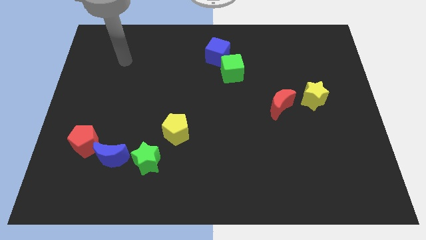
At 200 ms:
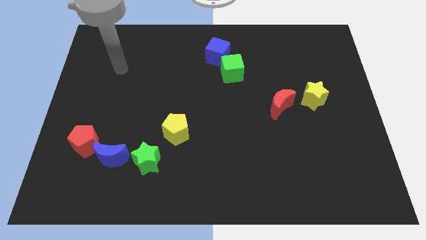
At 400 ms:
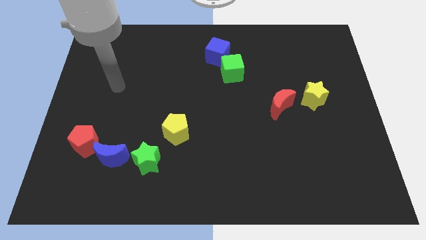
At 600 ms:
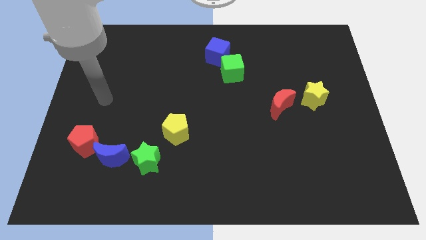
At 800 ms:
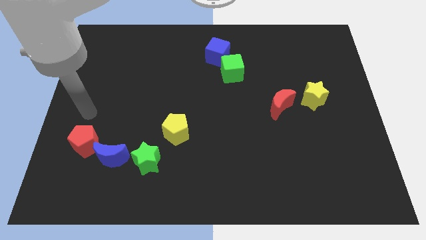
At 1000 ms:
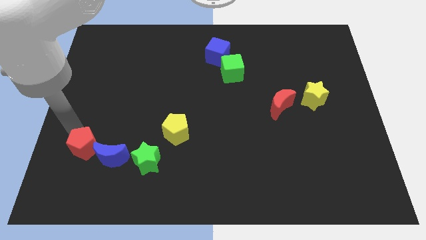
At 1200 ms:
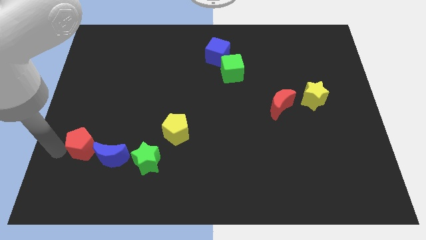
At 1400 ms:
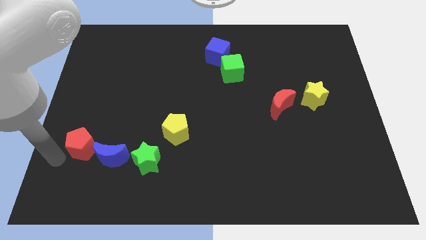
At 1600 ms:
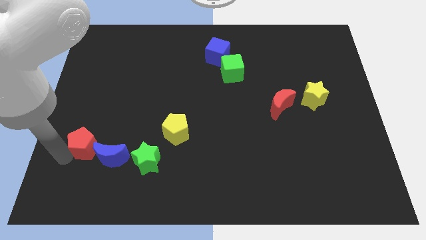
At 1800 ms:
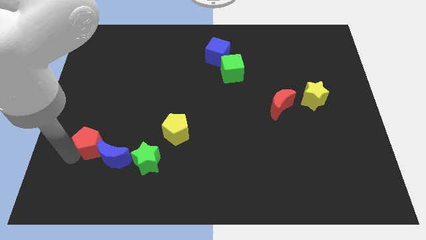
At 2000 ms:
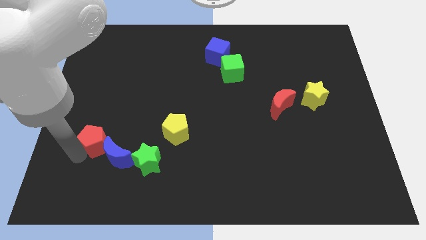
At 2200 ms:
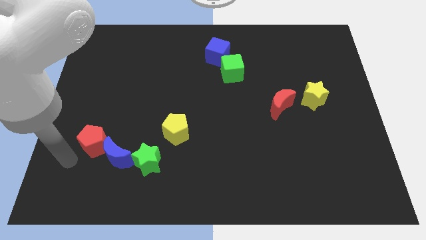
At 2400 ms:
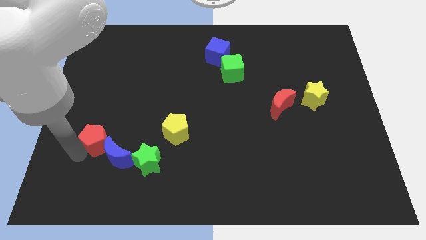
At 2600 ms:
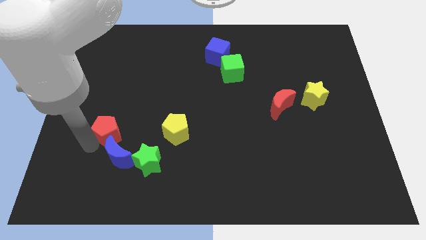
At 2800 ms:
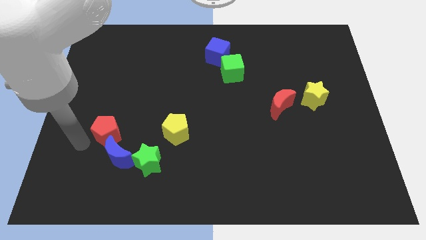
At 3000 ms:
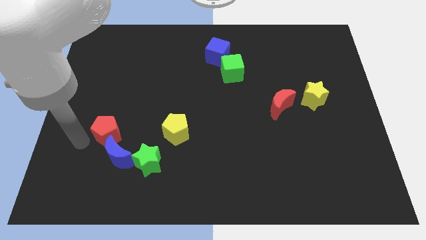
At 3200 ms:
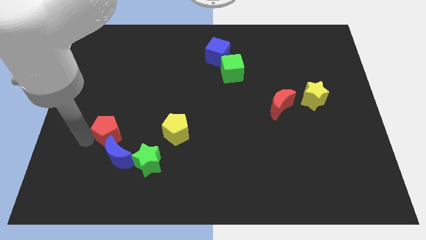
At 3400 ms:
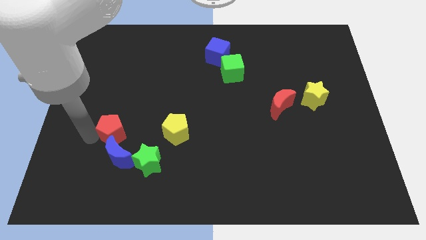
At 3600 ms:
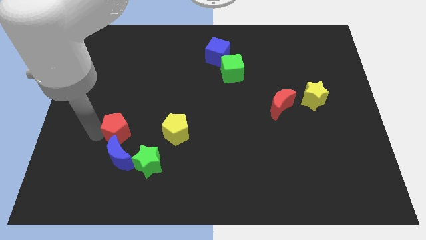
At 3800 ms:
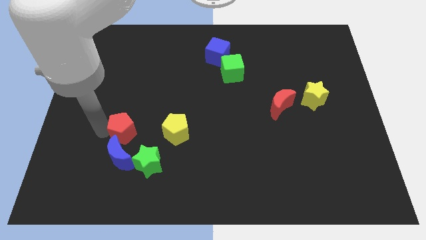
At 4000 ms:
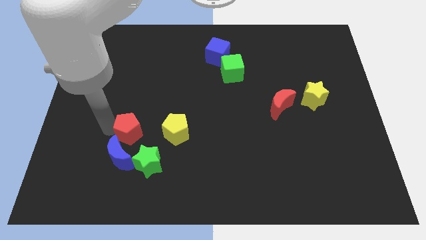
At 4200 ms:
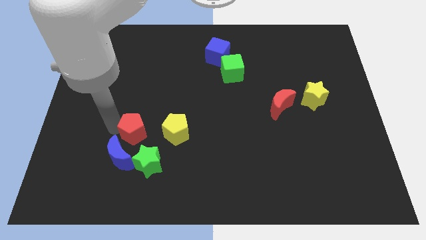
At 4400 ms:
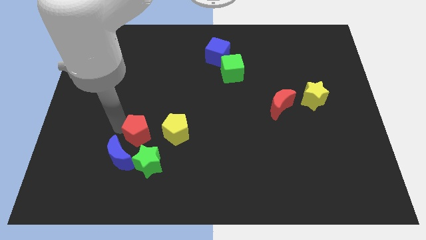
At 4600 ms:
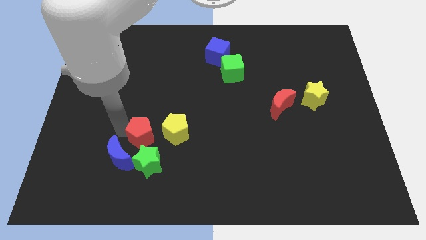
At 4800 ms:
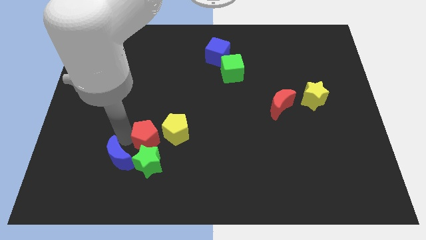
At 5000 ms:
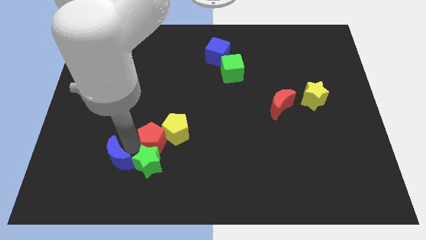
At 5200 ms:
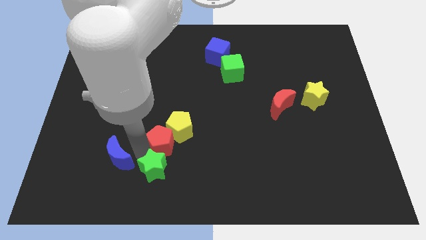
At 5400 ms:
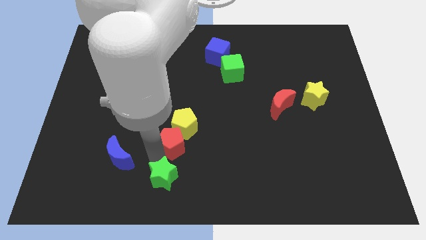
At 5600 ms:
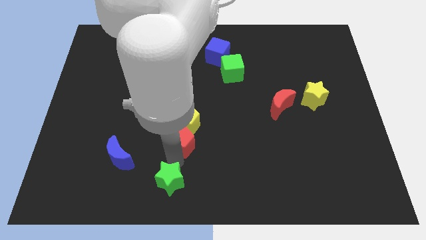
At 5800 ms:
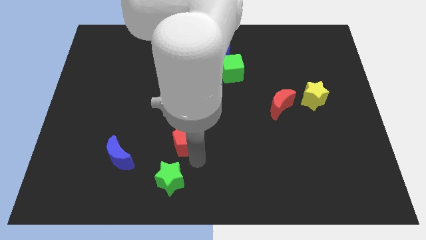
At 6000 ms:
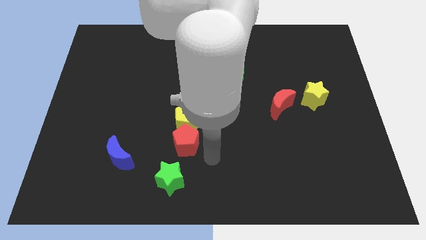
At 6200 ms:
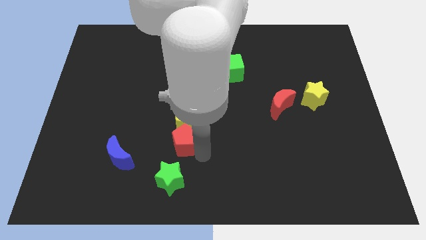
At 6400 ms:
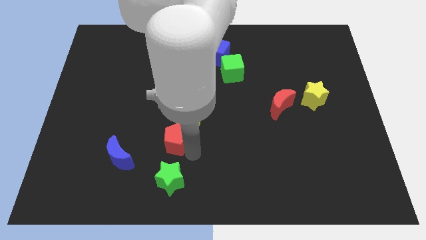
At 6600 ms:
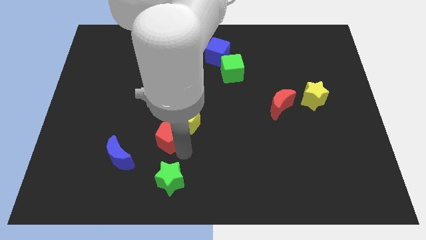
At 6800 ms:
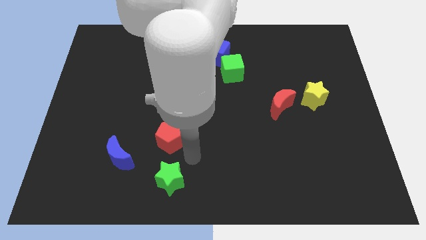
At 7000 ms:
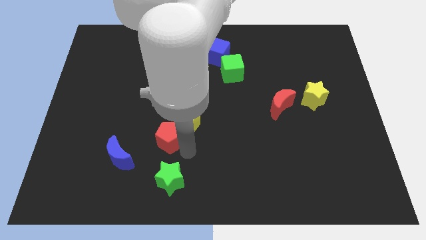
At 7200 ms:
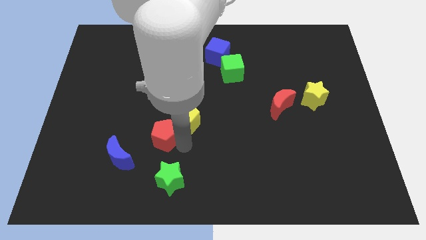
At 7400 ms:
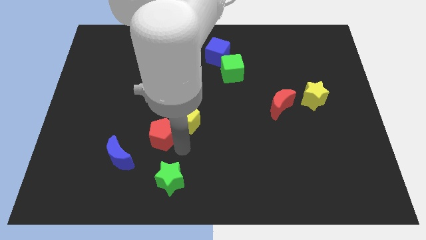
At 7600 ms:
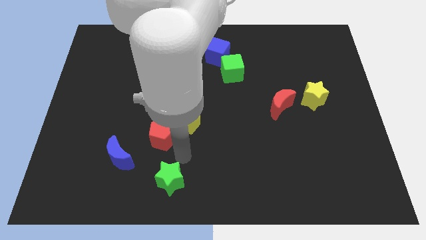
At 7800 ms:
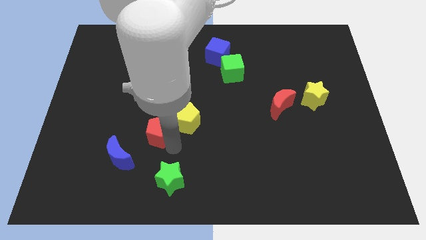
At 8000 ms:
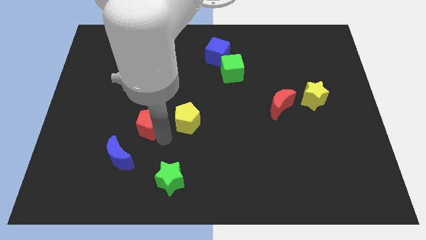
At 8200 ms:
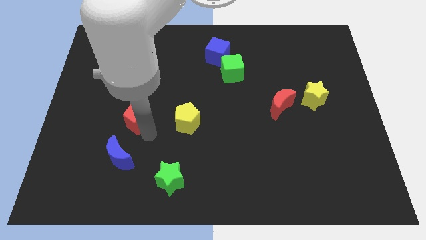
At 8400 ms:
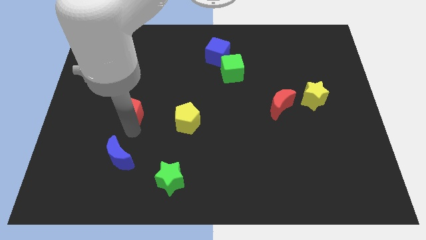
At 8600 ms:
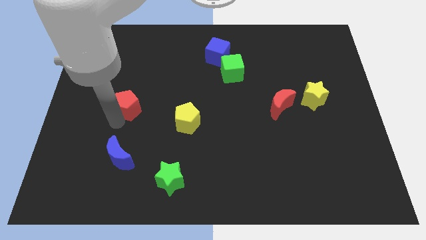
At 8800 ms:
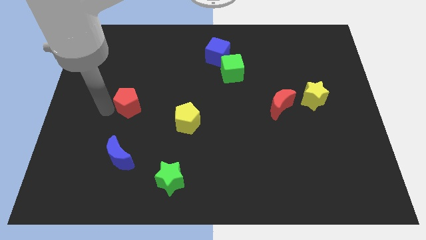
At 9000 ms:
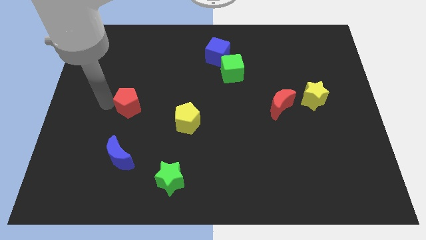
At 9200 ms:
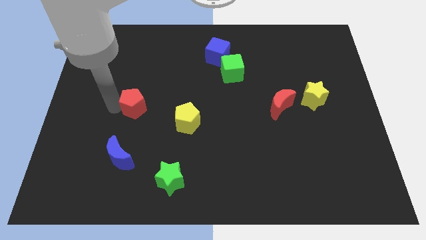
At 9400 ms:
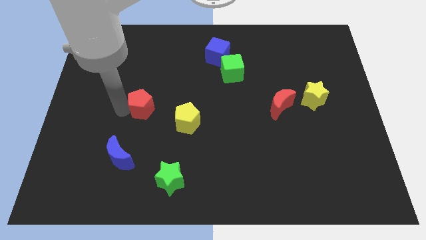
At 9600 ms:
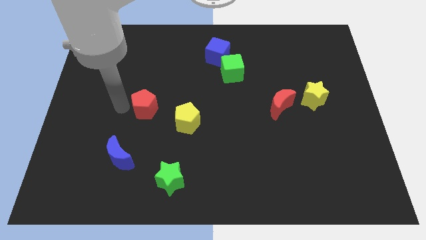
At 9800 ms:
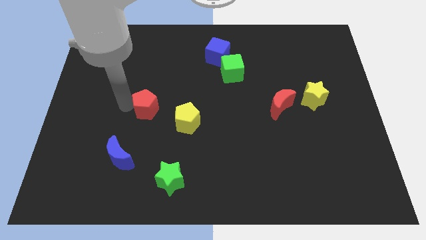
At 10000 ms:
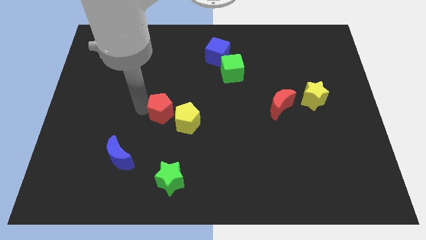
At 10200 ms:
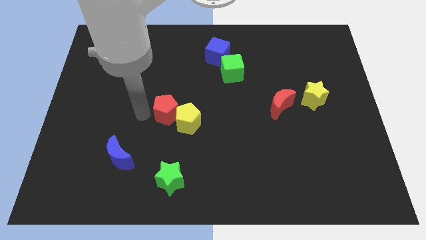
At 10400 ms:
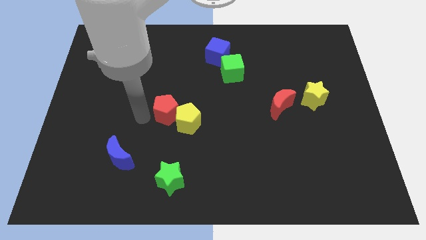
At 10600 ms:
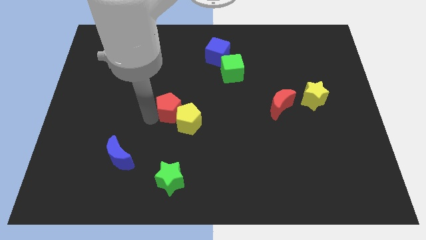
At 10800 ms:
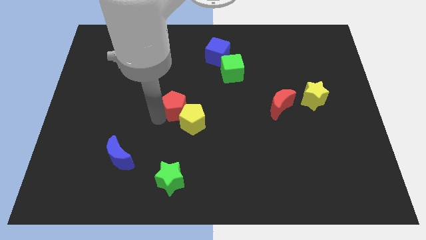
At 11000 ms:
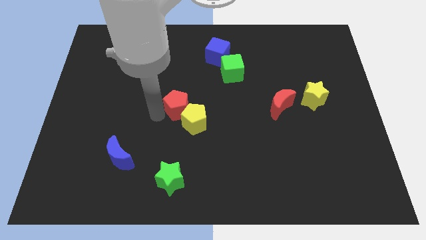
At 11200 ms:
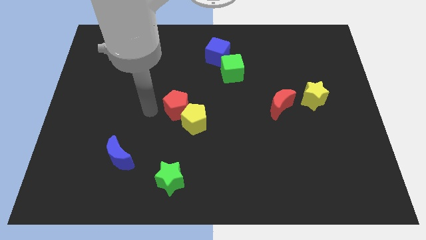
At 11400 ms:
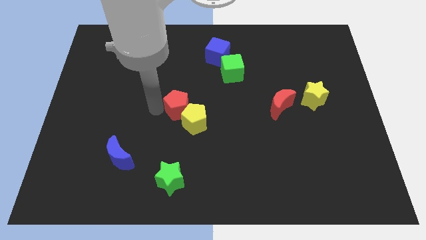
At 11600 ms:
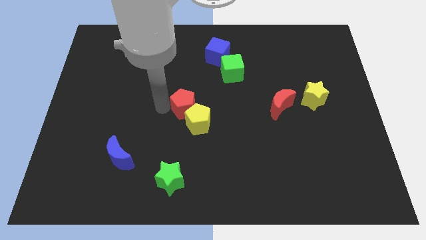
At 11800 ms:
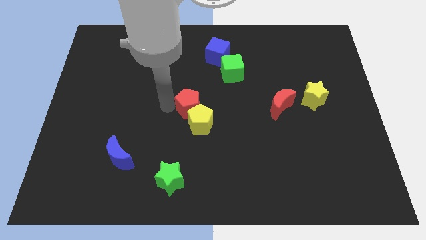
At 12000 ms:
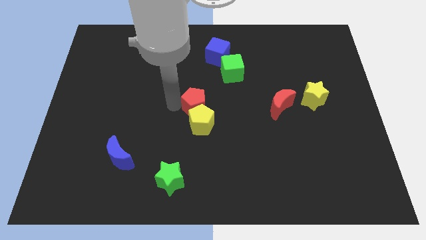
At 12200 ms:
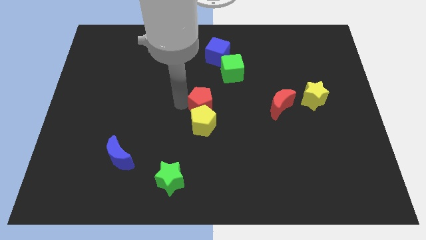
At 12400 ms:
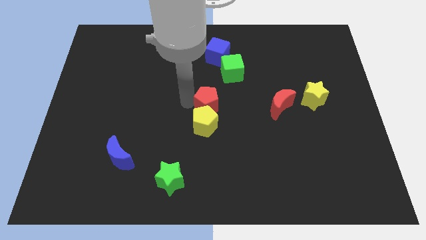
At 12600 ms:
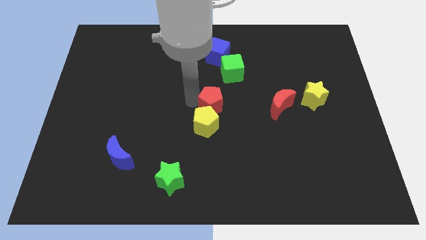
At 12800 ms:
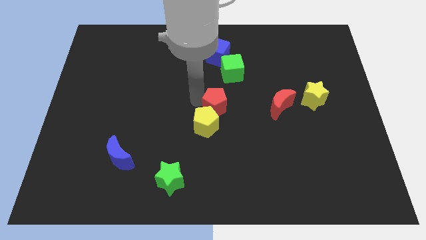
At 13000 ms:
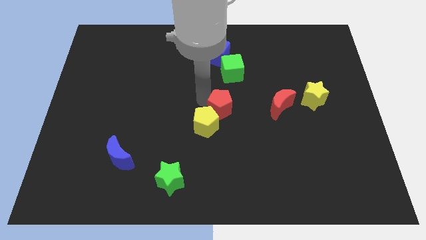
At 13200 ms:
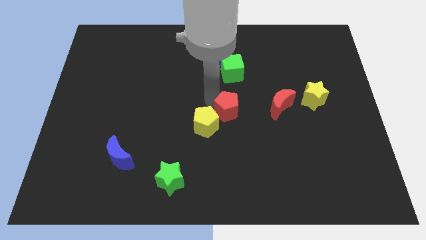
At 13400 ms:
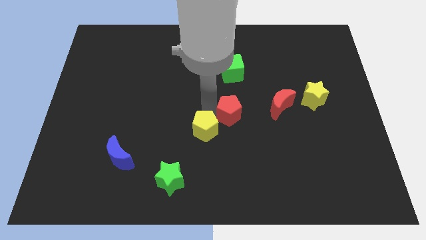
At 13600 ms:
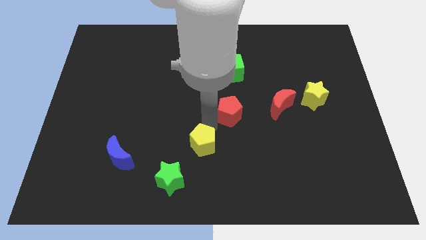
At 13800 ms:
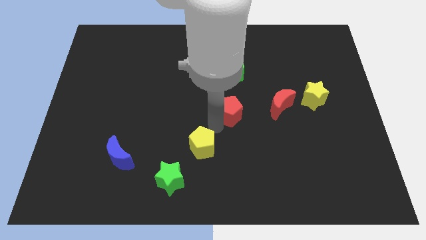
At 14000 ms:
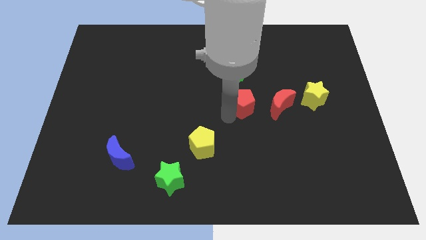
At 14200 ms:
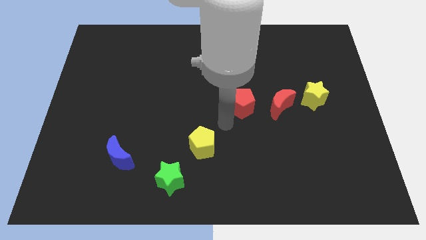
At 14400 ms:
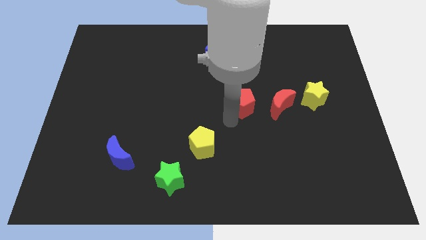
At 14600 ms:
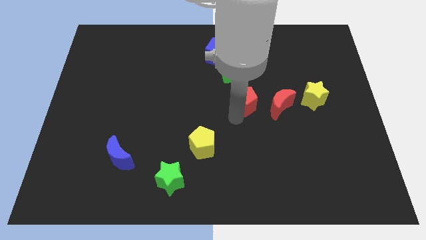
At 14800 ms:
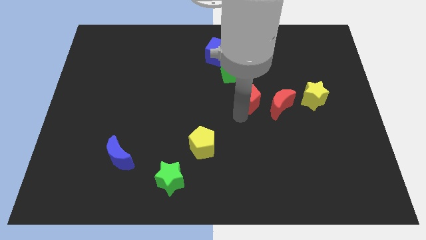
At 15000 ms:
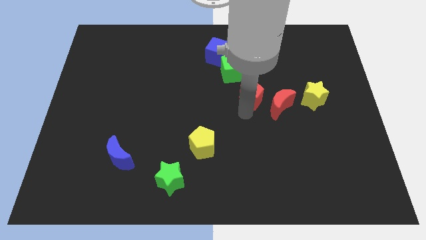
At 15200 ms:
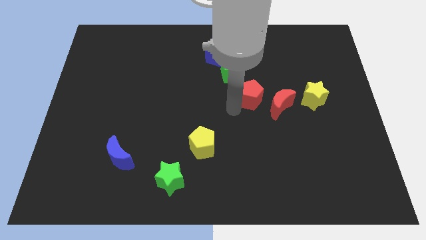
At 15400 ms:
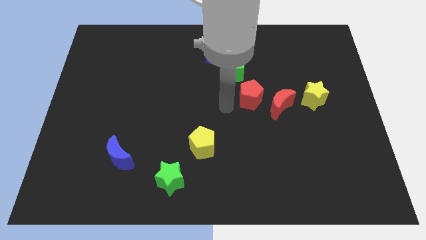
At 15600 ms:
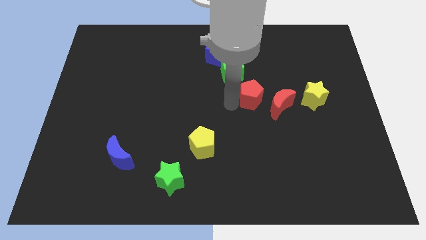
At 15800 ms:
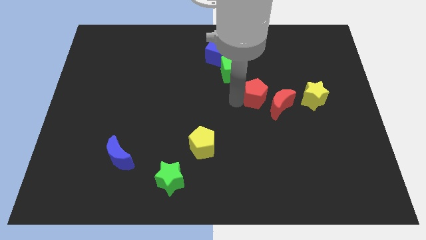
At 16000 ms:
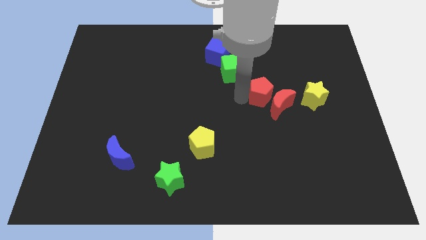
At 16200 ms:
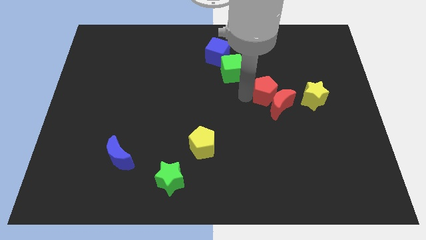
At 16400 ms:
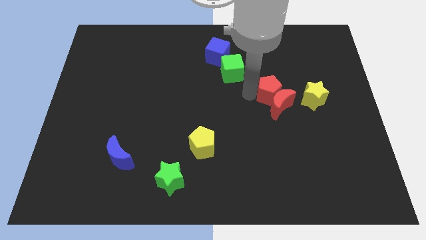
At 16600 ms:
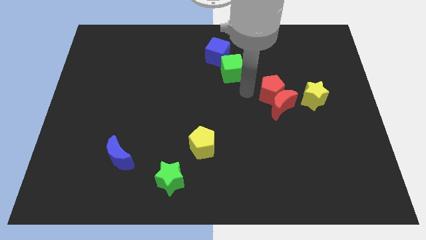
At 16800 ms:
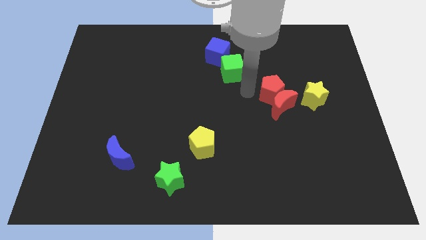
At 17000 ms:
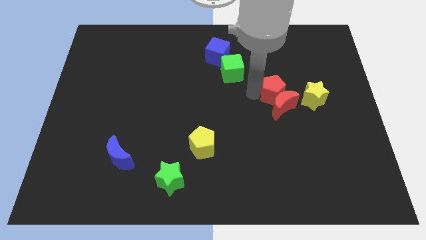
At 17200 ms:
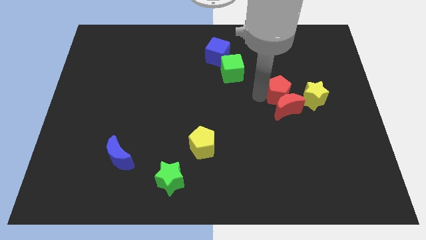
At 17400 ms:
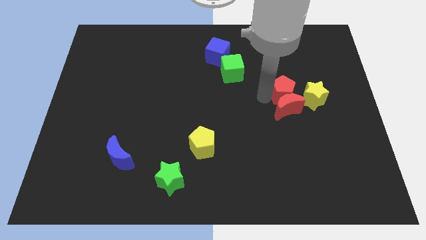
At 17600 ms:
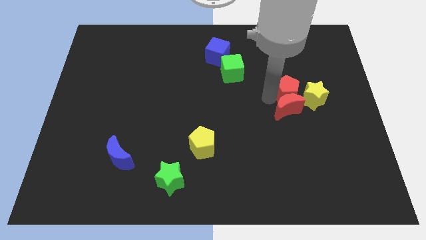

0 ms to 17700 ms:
slide the red pentagon to the yellow star
